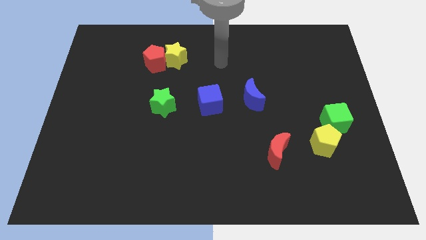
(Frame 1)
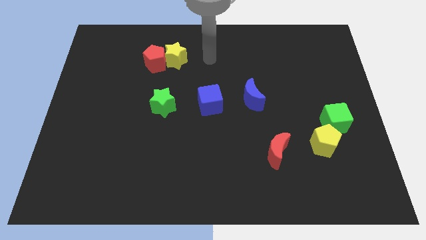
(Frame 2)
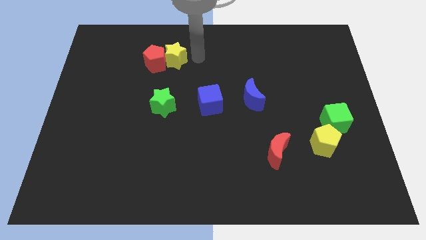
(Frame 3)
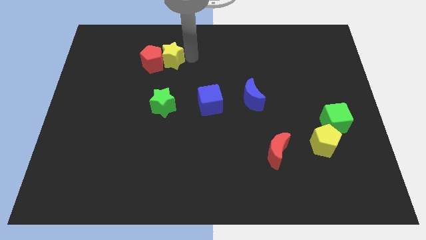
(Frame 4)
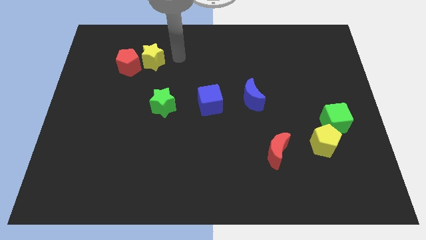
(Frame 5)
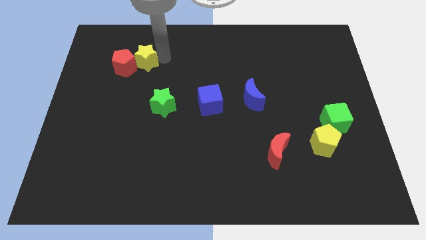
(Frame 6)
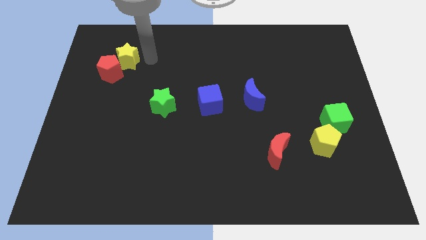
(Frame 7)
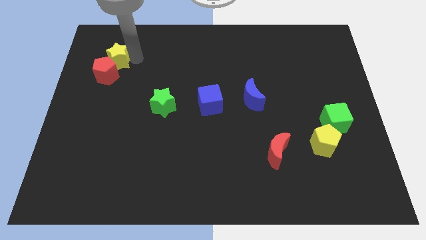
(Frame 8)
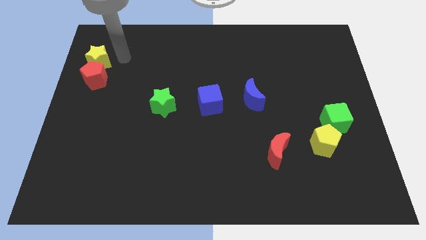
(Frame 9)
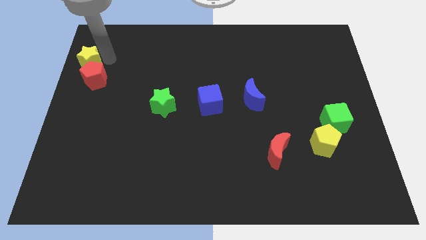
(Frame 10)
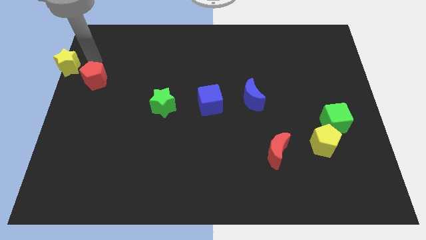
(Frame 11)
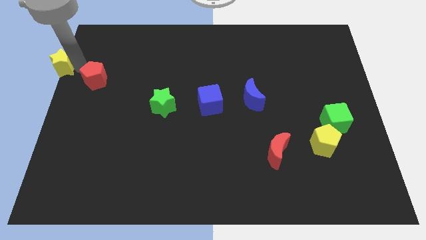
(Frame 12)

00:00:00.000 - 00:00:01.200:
separate the red pentagon from the yellow star

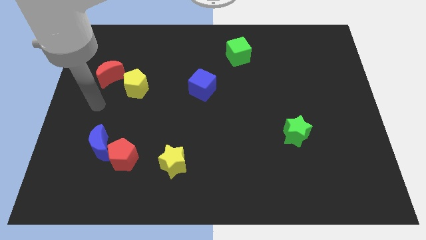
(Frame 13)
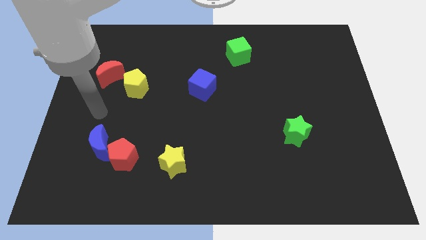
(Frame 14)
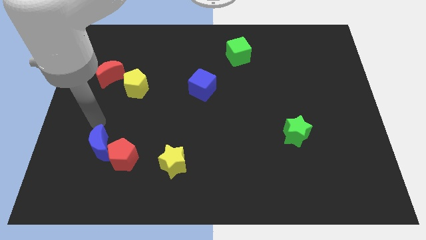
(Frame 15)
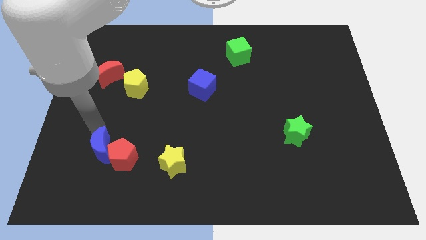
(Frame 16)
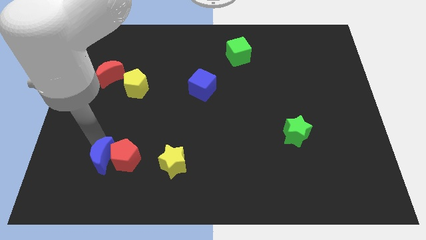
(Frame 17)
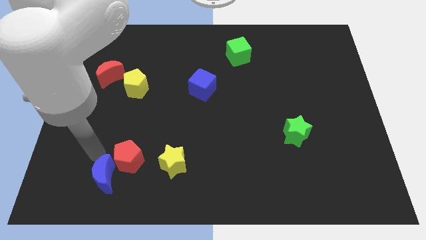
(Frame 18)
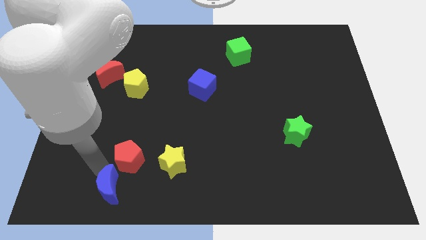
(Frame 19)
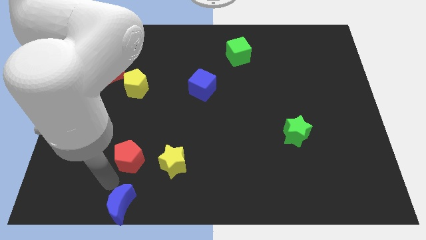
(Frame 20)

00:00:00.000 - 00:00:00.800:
move the red pentagon away from the blue moon

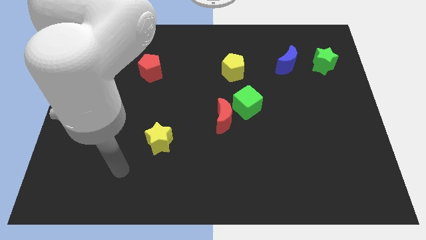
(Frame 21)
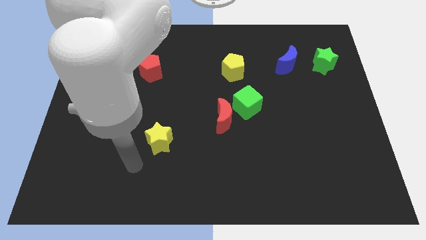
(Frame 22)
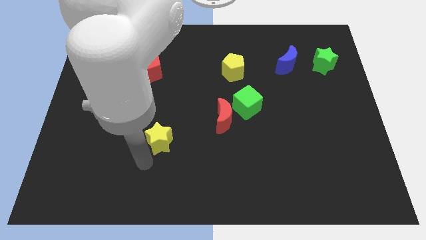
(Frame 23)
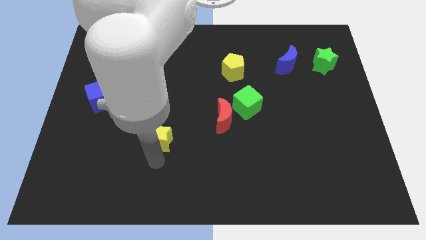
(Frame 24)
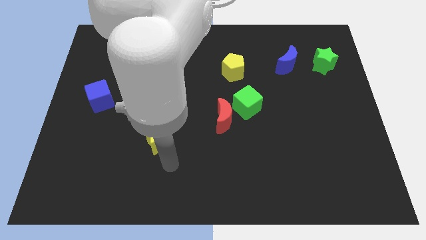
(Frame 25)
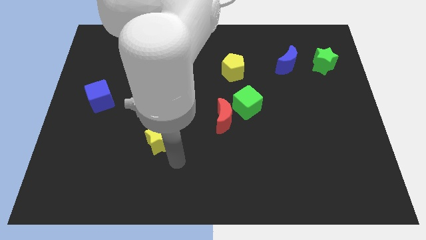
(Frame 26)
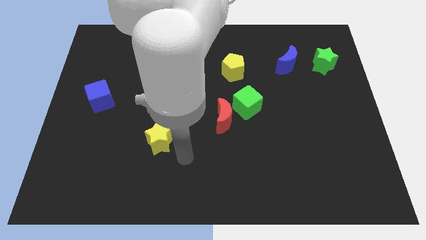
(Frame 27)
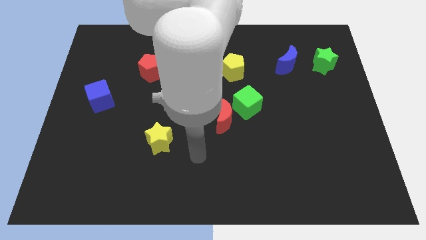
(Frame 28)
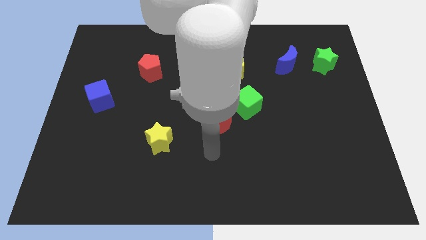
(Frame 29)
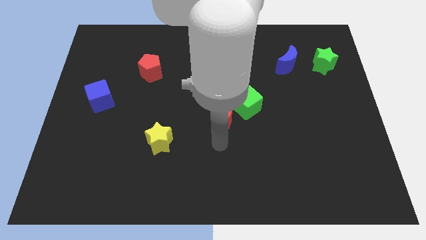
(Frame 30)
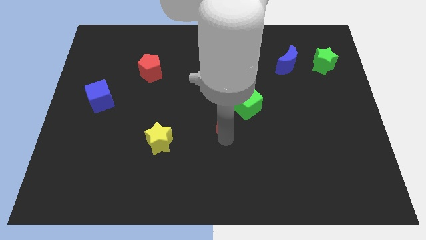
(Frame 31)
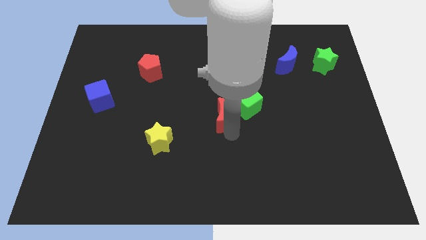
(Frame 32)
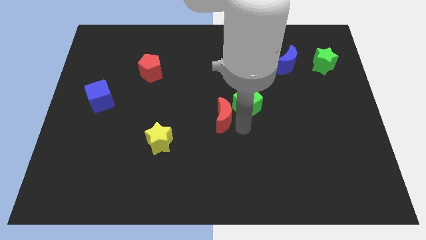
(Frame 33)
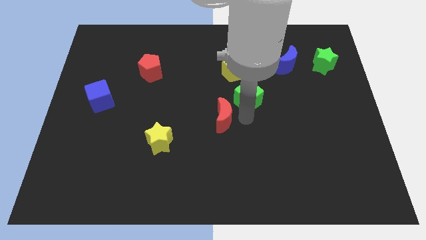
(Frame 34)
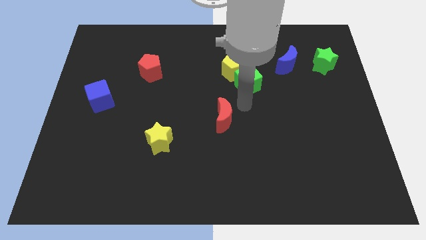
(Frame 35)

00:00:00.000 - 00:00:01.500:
move the red moon away from the green cube

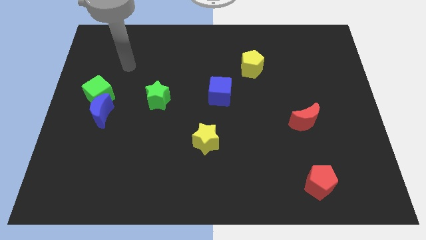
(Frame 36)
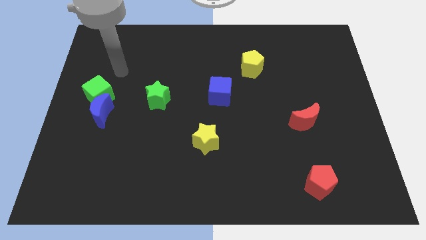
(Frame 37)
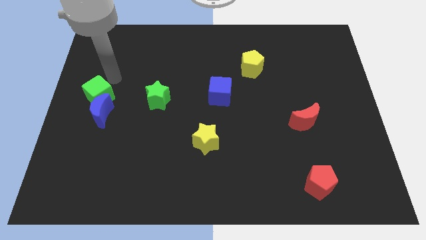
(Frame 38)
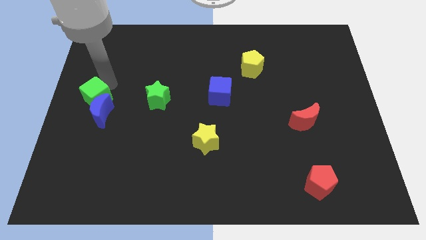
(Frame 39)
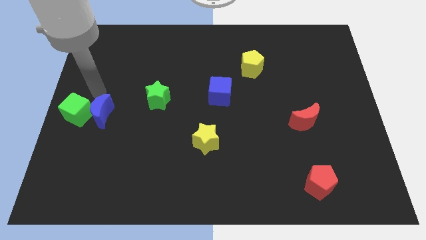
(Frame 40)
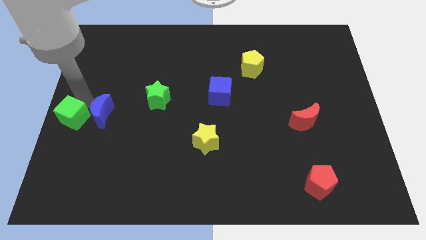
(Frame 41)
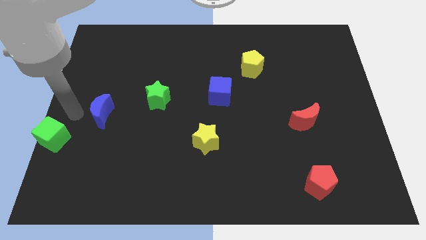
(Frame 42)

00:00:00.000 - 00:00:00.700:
pull the blue moon apart from the green cube

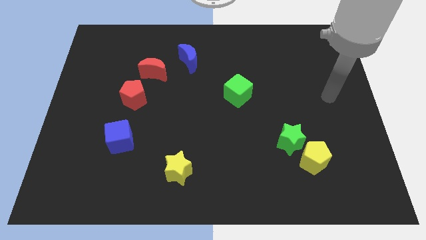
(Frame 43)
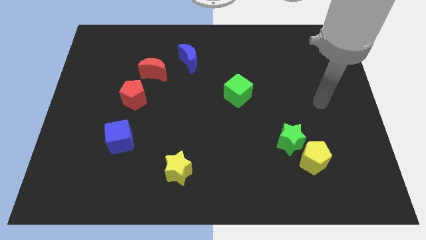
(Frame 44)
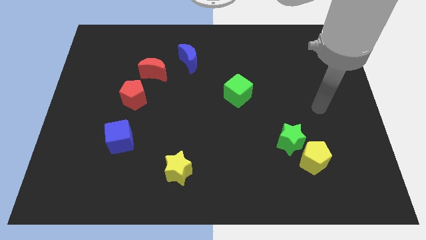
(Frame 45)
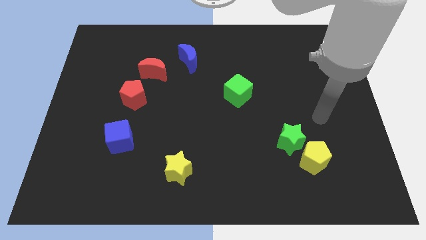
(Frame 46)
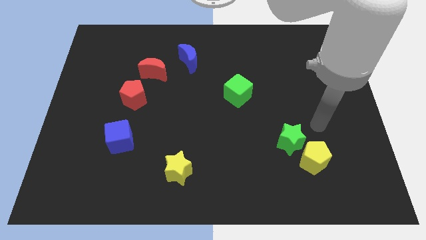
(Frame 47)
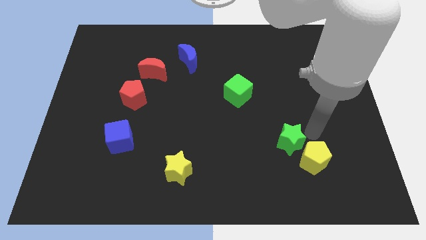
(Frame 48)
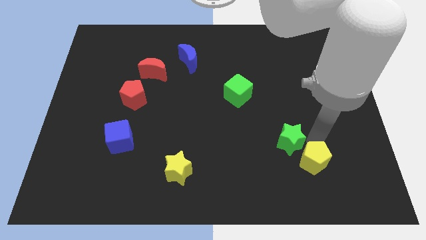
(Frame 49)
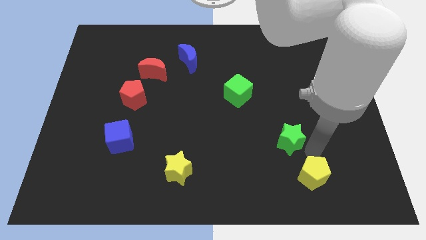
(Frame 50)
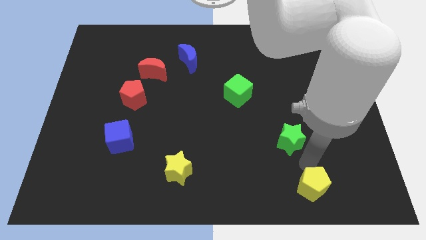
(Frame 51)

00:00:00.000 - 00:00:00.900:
pull the green star apart from the yellow pentagon

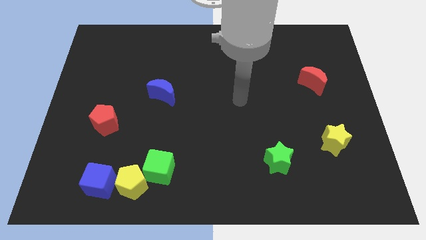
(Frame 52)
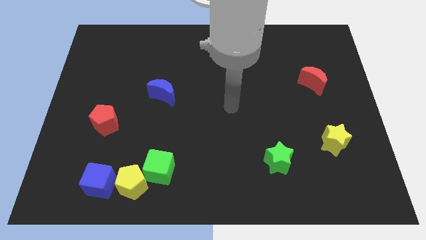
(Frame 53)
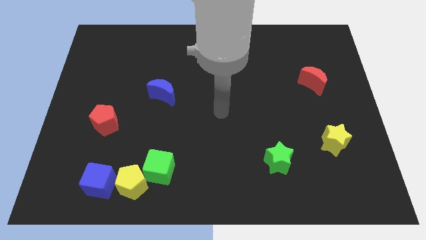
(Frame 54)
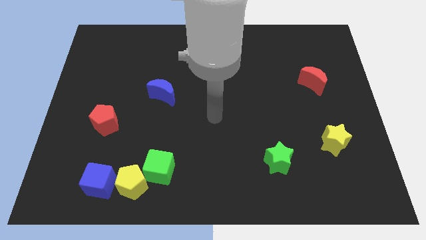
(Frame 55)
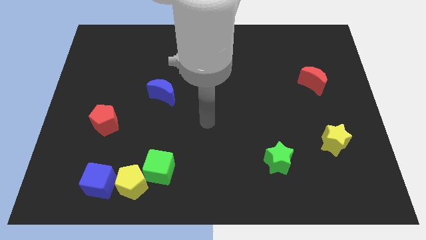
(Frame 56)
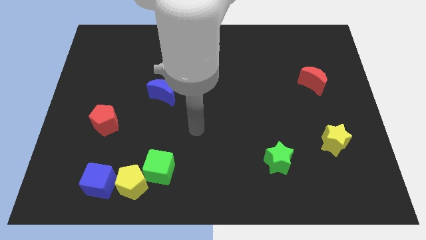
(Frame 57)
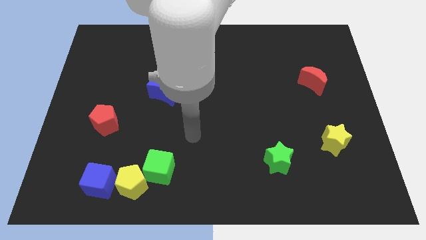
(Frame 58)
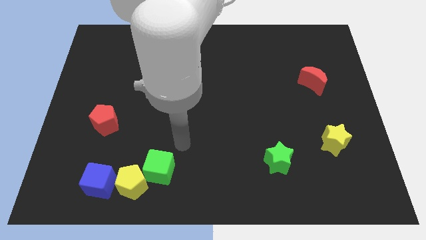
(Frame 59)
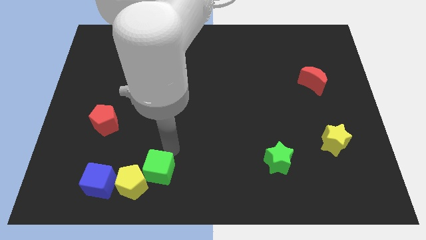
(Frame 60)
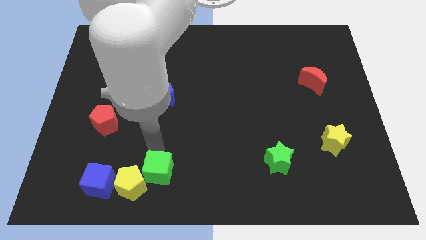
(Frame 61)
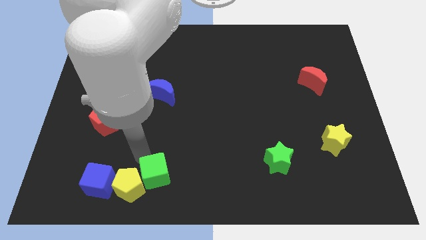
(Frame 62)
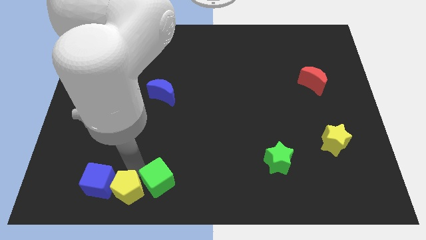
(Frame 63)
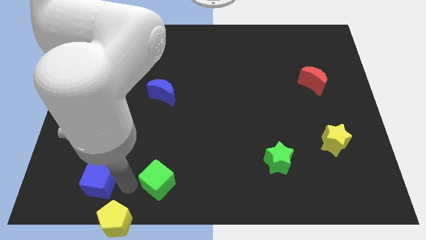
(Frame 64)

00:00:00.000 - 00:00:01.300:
separate the green cube from the yellow pentagon

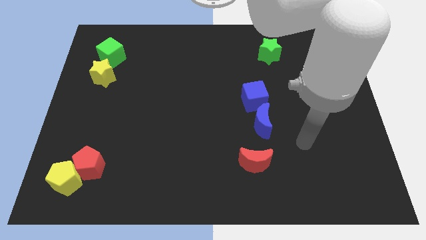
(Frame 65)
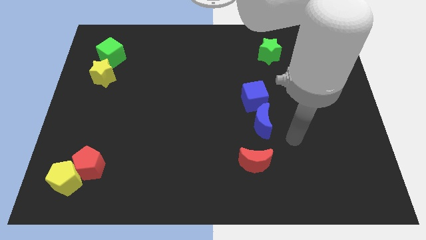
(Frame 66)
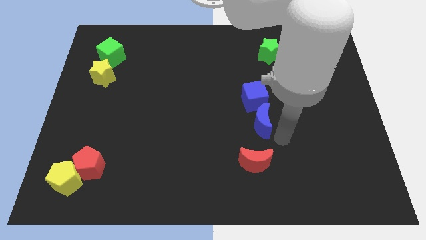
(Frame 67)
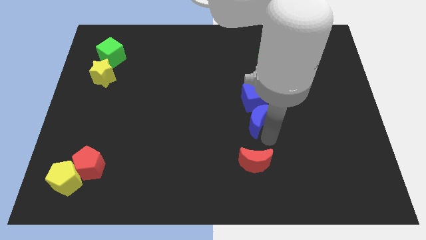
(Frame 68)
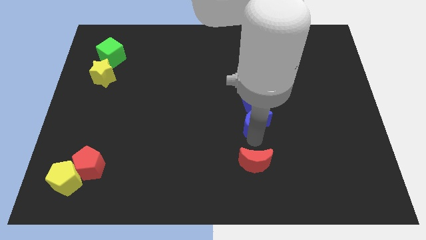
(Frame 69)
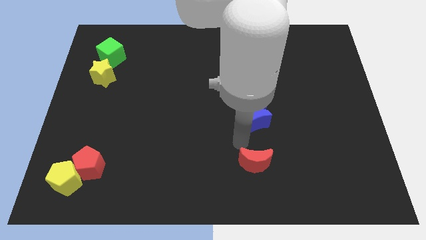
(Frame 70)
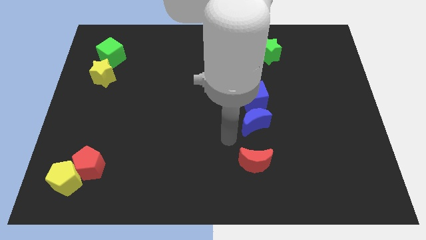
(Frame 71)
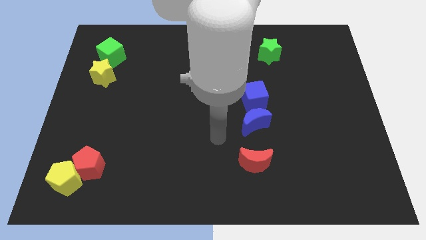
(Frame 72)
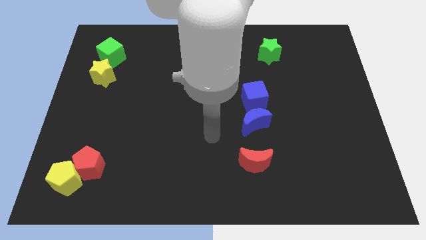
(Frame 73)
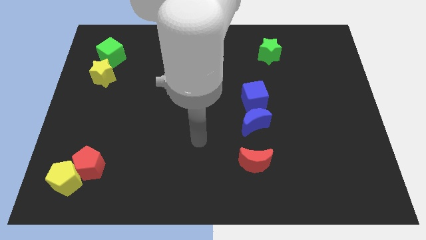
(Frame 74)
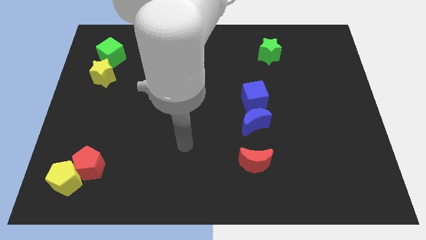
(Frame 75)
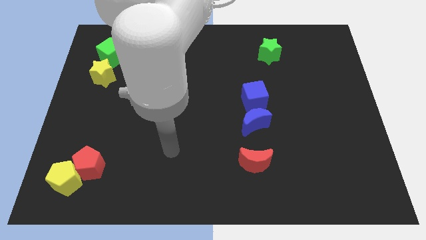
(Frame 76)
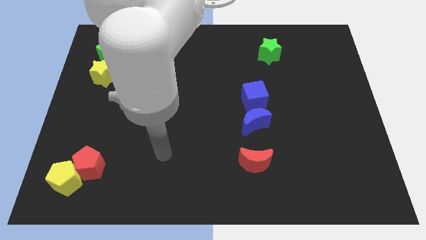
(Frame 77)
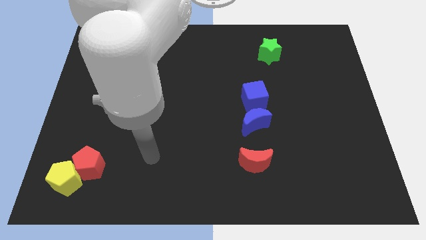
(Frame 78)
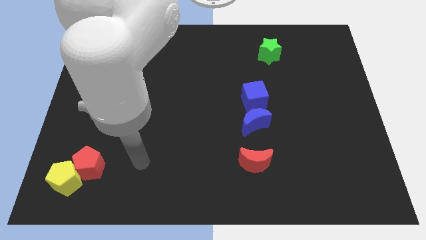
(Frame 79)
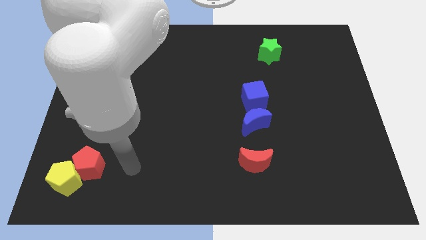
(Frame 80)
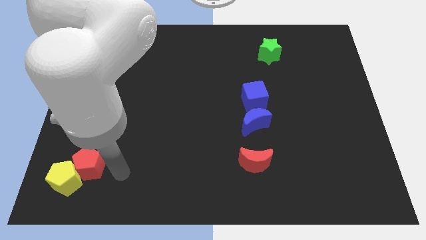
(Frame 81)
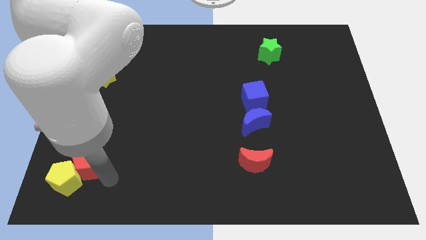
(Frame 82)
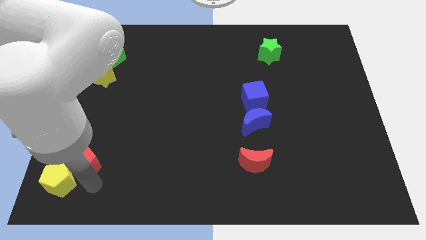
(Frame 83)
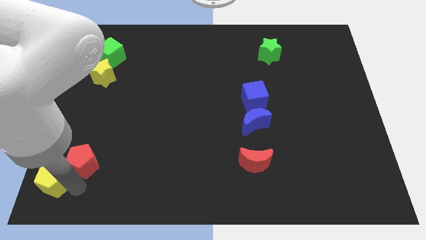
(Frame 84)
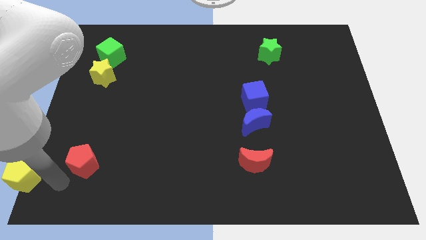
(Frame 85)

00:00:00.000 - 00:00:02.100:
move the red pentagon away from the yellow pentagon

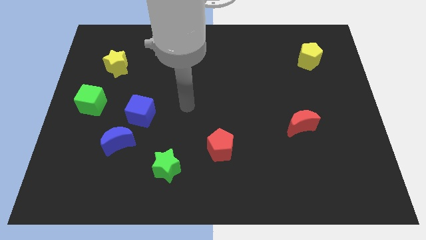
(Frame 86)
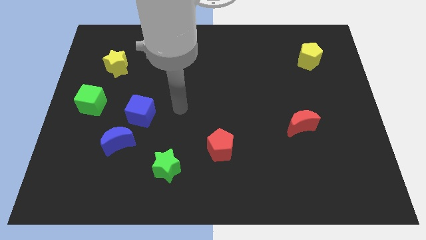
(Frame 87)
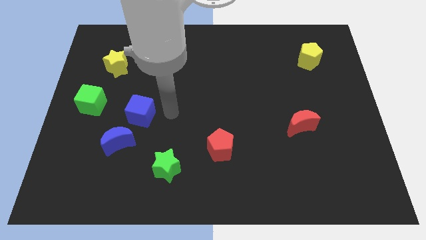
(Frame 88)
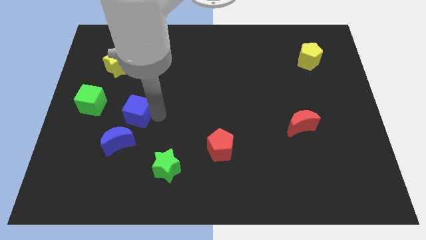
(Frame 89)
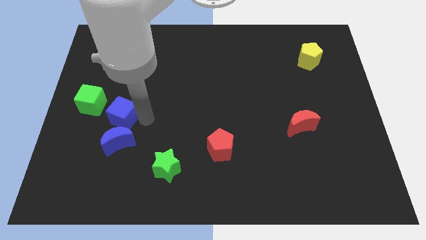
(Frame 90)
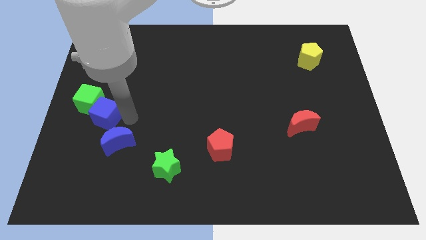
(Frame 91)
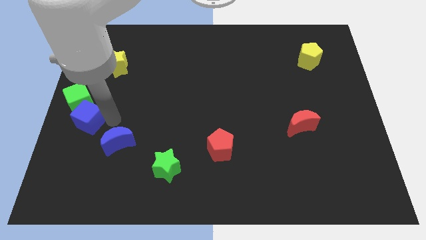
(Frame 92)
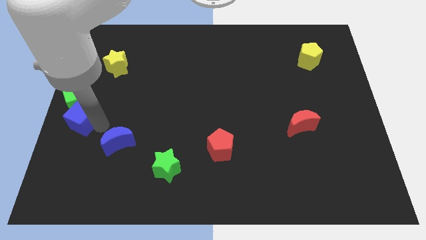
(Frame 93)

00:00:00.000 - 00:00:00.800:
pull the blue moon apart from the blue cube
